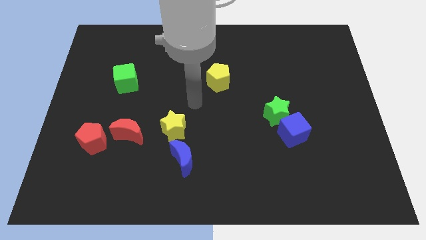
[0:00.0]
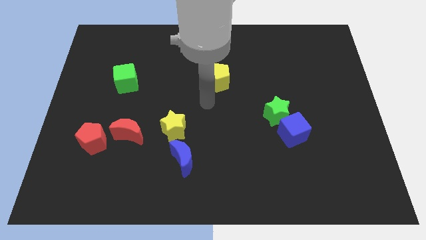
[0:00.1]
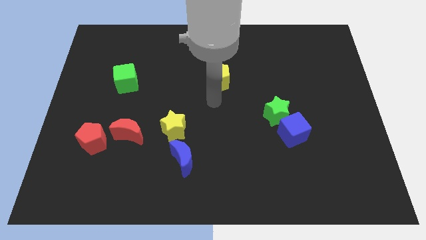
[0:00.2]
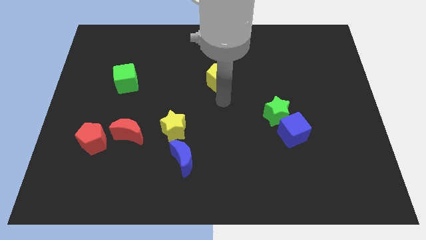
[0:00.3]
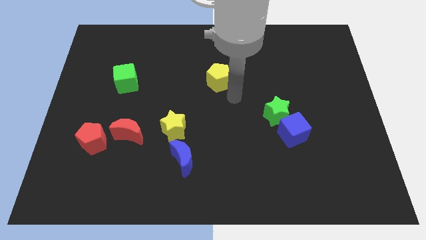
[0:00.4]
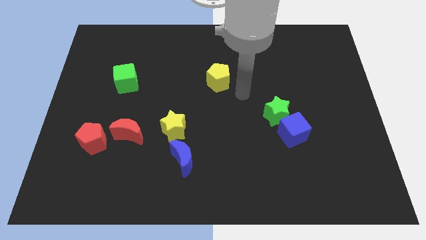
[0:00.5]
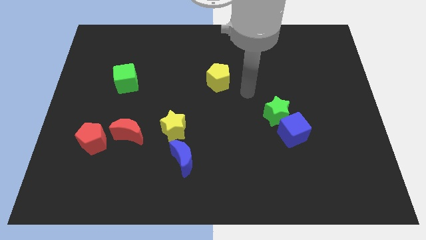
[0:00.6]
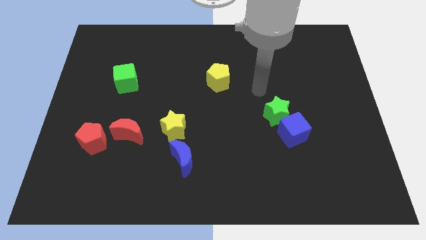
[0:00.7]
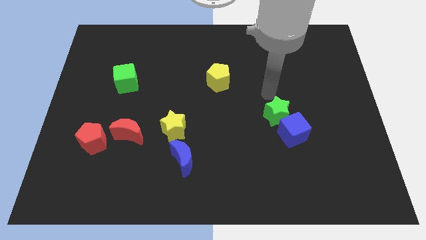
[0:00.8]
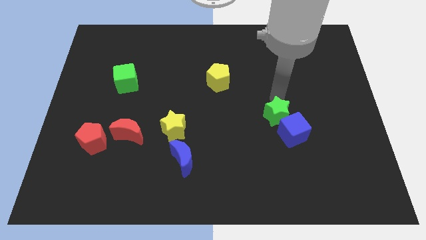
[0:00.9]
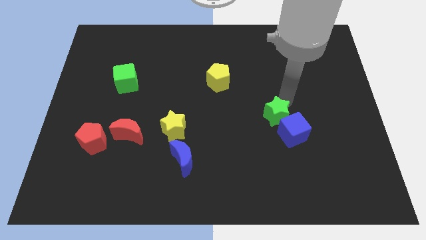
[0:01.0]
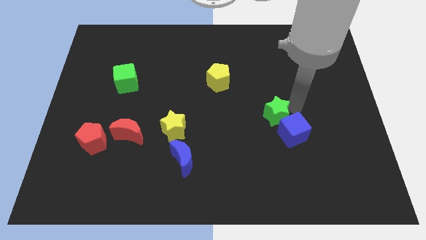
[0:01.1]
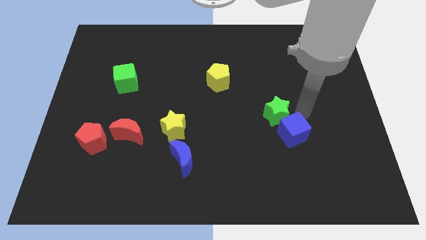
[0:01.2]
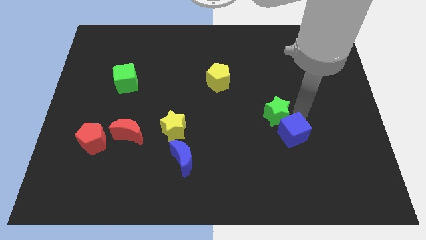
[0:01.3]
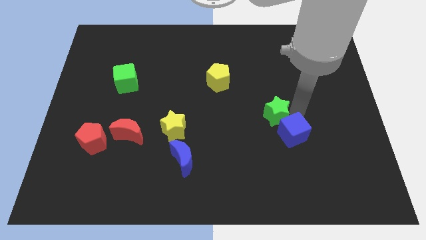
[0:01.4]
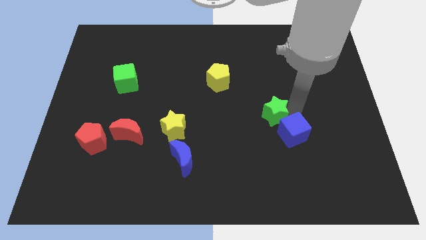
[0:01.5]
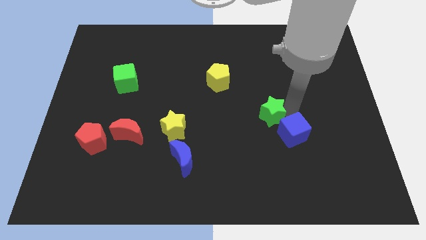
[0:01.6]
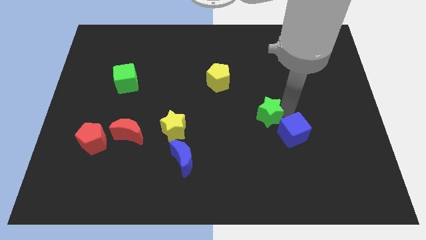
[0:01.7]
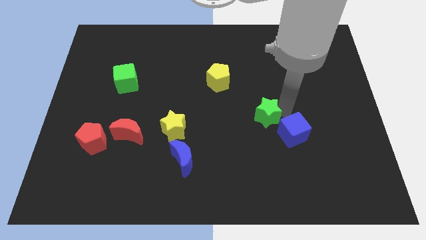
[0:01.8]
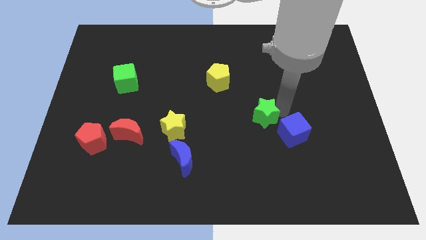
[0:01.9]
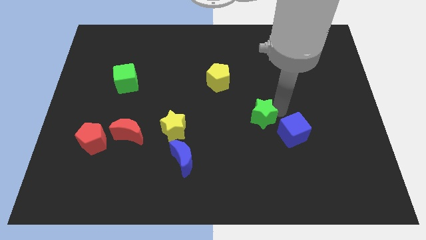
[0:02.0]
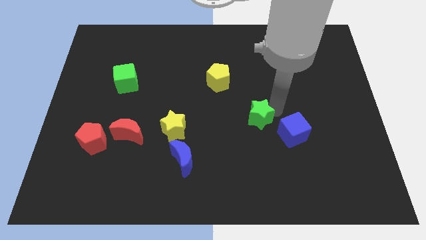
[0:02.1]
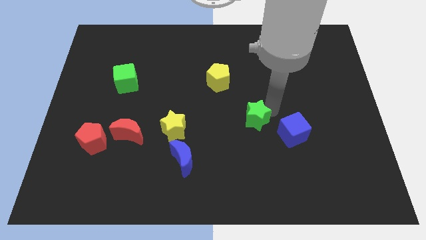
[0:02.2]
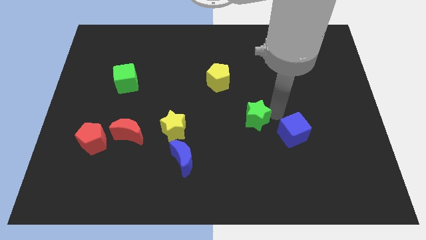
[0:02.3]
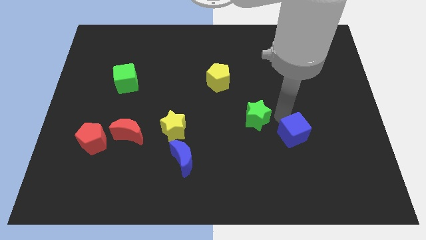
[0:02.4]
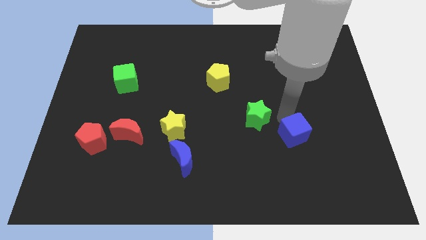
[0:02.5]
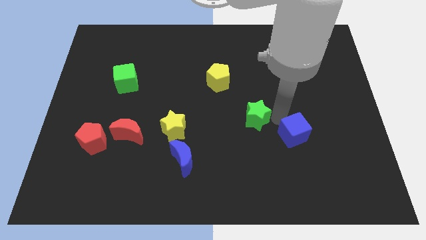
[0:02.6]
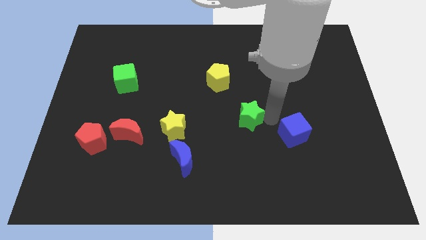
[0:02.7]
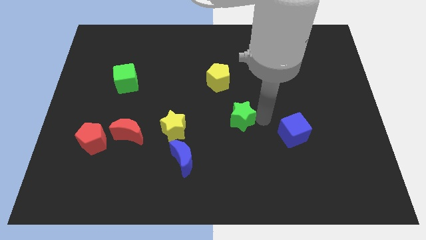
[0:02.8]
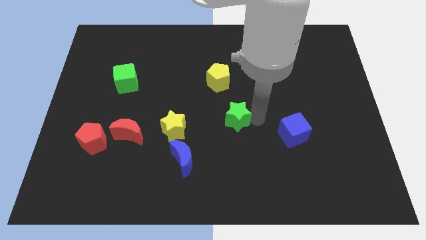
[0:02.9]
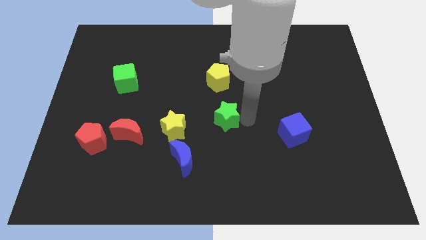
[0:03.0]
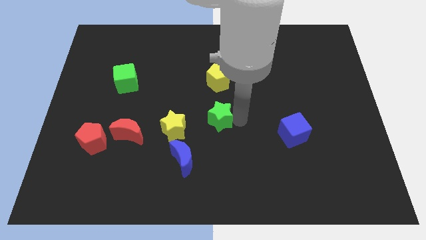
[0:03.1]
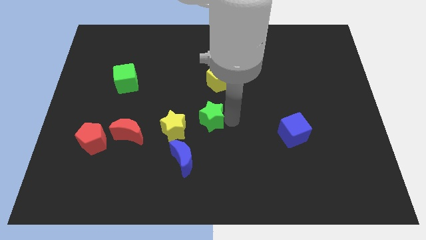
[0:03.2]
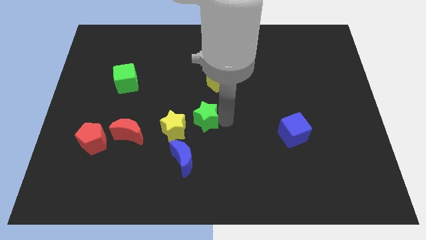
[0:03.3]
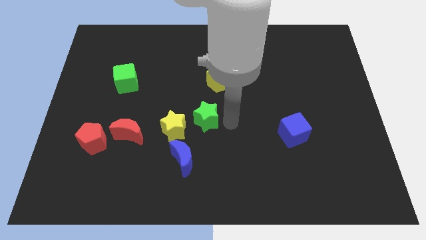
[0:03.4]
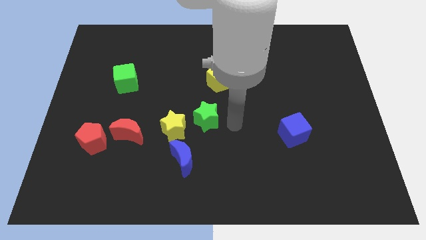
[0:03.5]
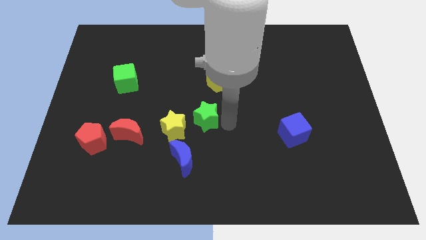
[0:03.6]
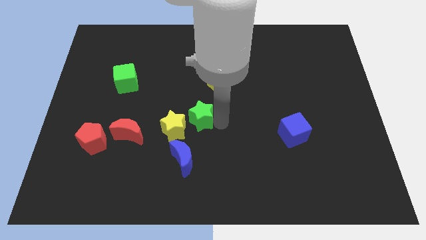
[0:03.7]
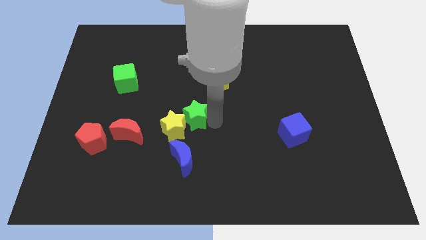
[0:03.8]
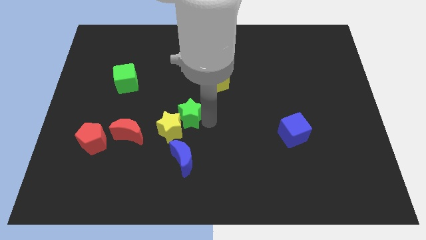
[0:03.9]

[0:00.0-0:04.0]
slide the green star left

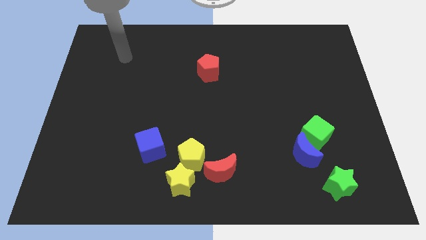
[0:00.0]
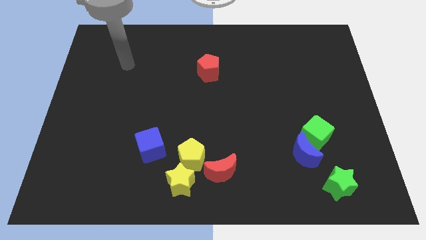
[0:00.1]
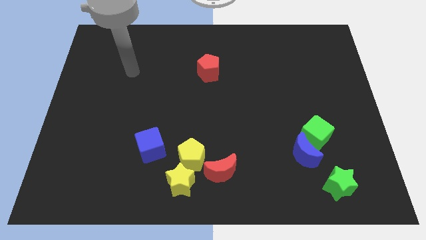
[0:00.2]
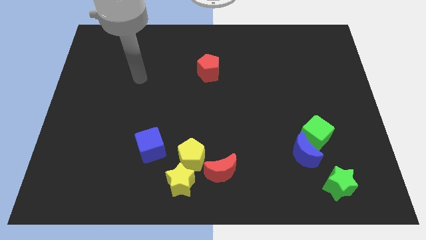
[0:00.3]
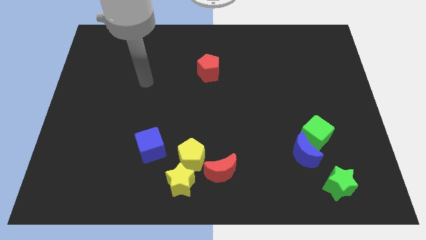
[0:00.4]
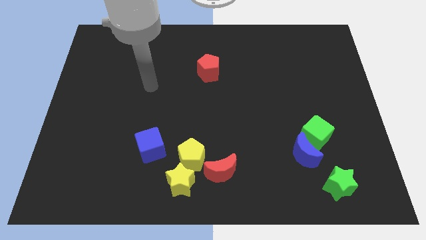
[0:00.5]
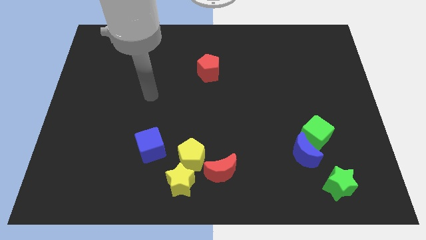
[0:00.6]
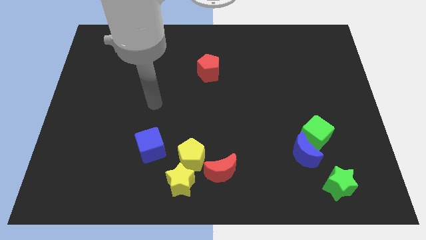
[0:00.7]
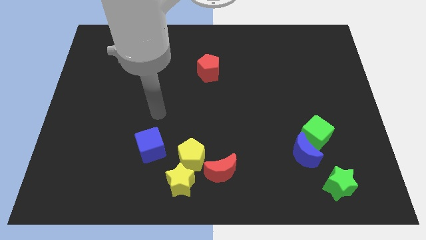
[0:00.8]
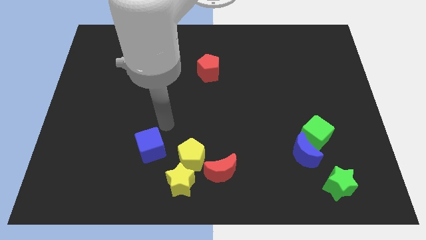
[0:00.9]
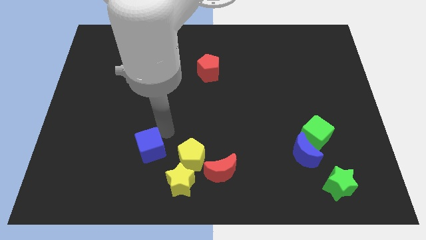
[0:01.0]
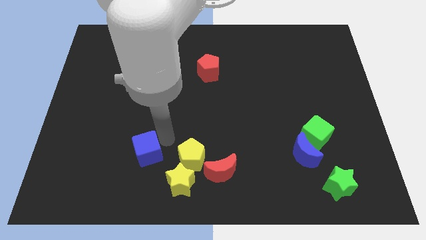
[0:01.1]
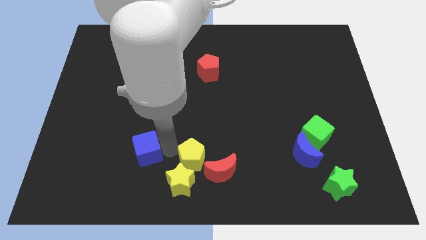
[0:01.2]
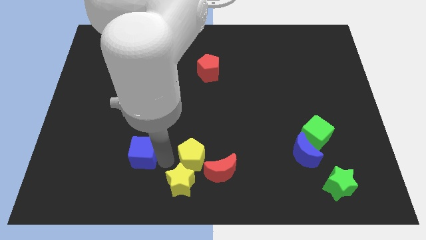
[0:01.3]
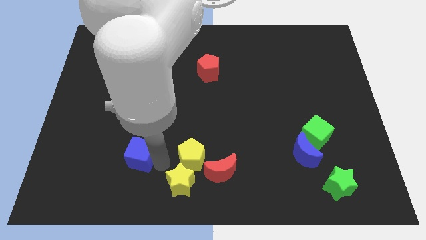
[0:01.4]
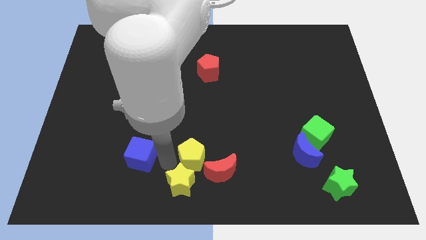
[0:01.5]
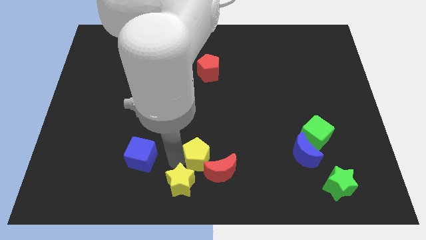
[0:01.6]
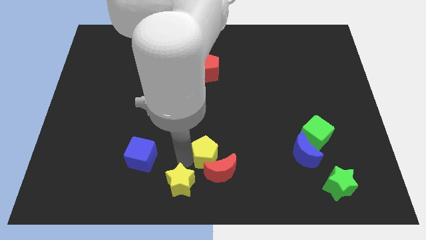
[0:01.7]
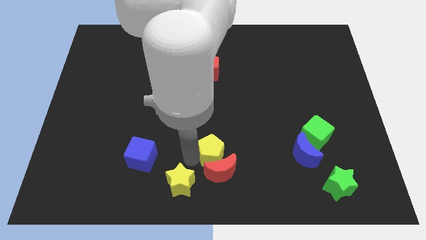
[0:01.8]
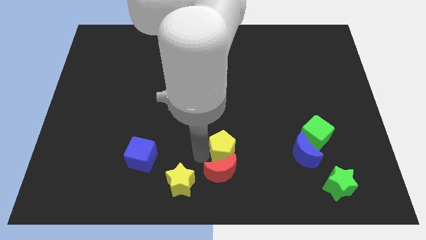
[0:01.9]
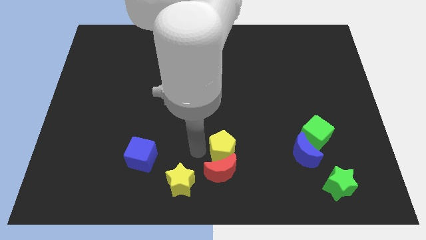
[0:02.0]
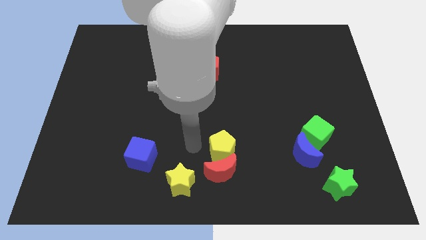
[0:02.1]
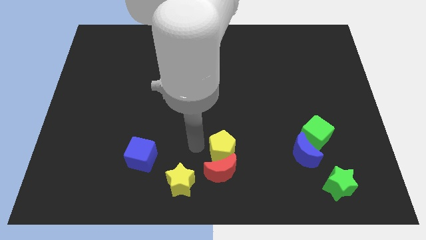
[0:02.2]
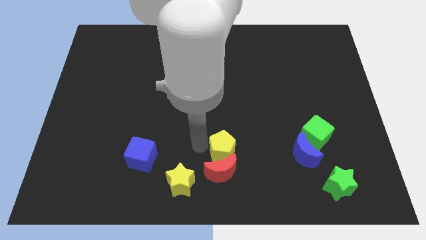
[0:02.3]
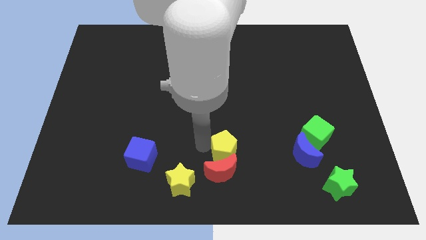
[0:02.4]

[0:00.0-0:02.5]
slightly push the yellow pentagon right

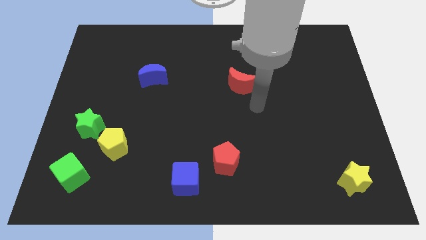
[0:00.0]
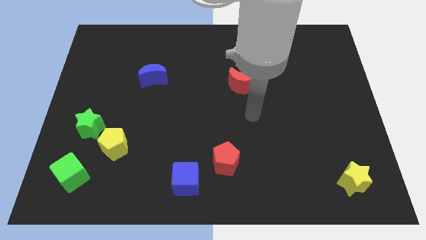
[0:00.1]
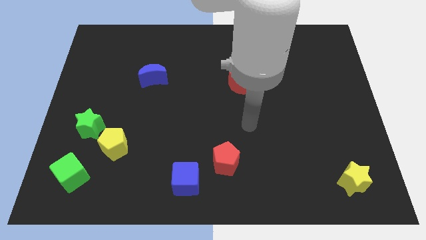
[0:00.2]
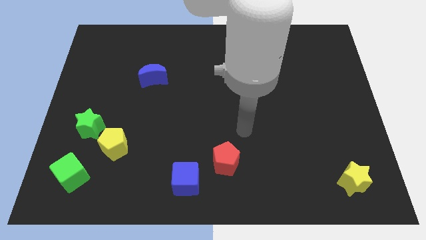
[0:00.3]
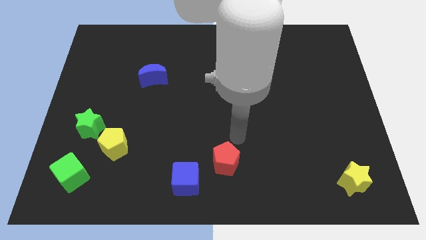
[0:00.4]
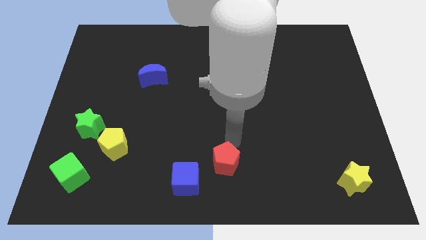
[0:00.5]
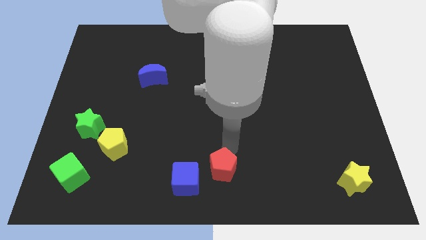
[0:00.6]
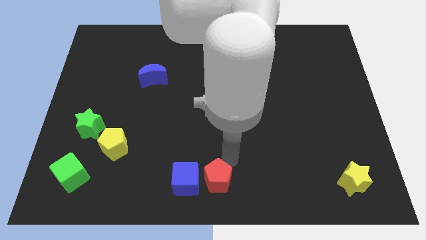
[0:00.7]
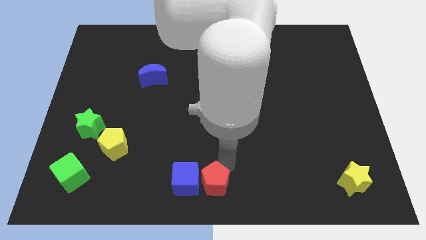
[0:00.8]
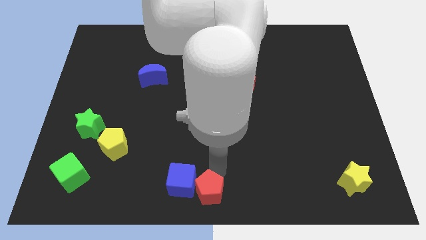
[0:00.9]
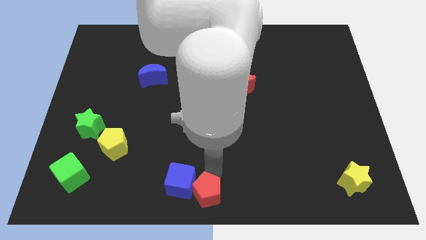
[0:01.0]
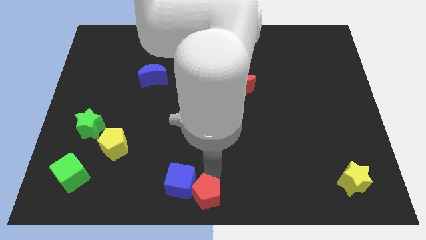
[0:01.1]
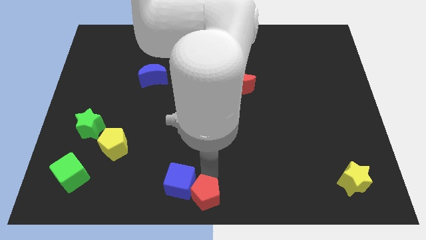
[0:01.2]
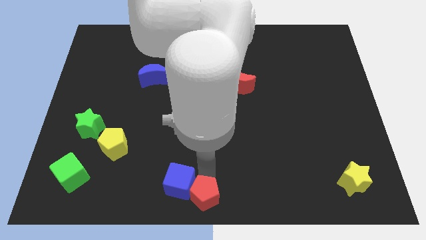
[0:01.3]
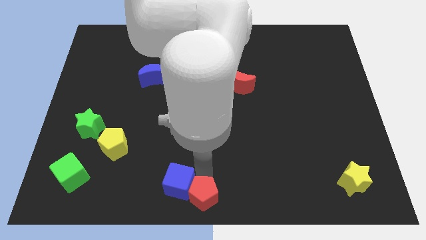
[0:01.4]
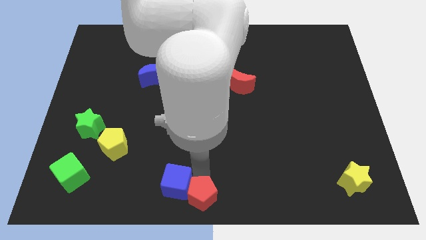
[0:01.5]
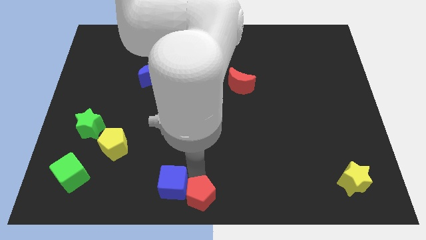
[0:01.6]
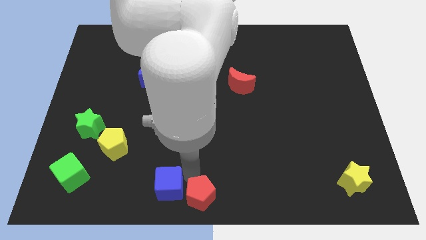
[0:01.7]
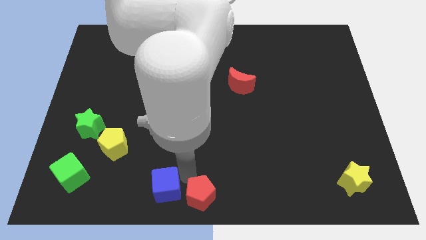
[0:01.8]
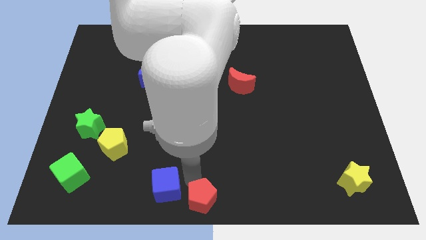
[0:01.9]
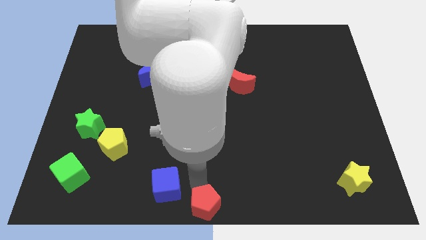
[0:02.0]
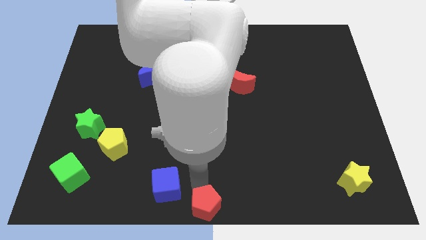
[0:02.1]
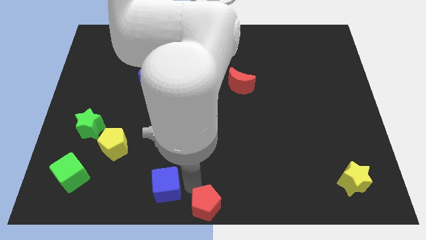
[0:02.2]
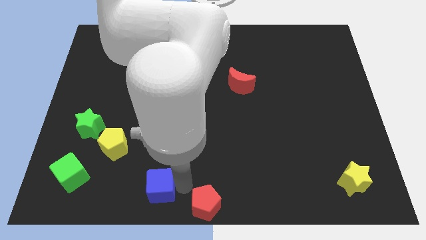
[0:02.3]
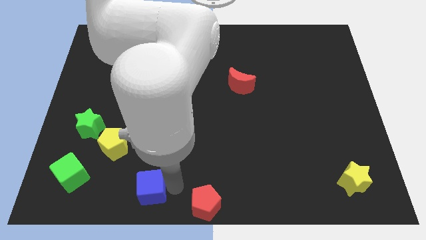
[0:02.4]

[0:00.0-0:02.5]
push the blue cube to the left slightly
